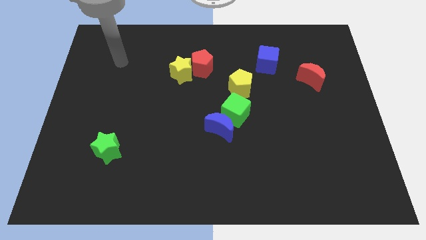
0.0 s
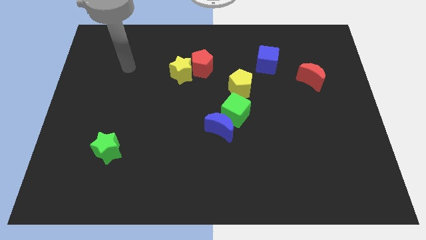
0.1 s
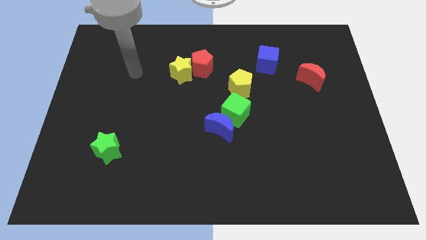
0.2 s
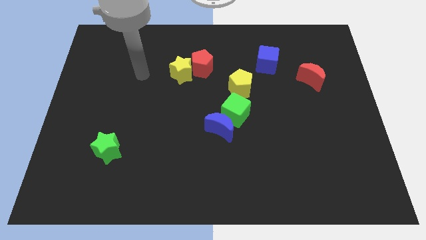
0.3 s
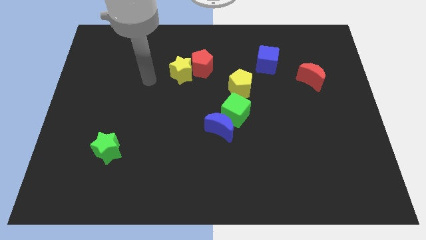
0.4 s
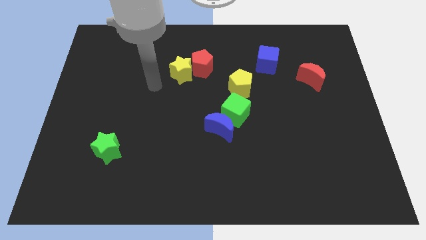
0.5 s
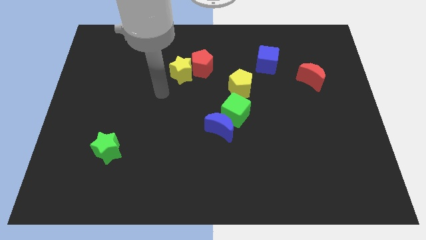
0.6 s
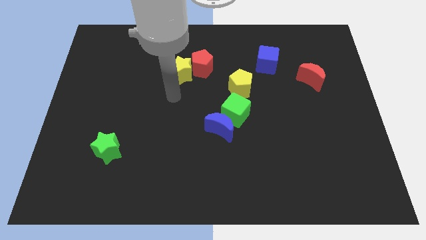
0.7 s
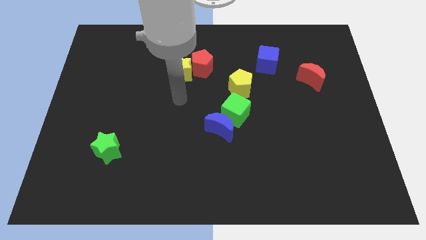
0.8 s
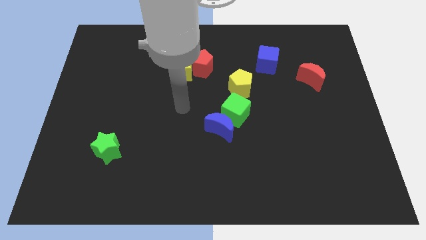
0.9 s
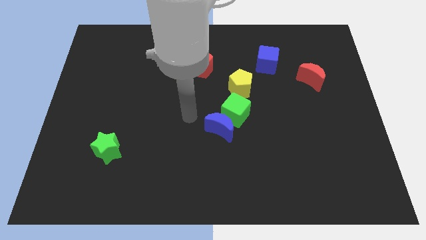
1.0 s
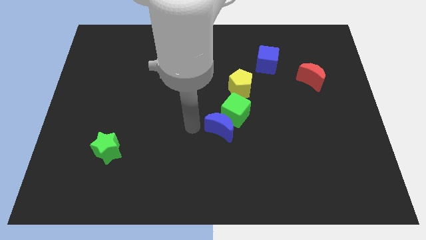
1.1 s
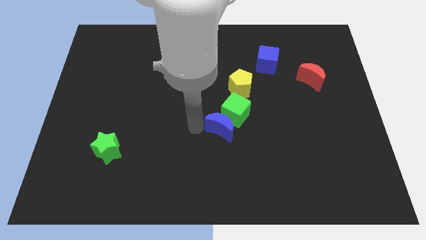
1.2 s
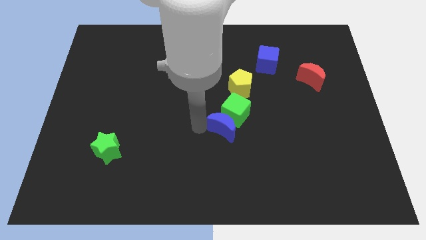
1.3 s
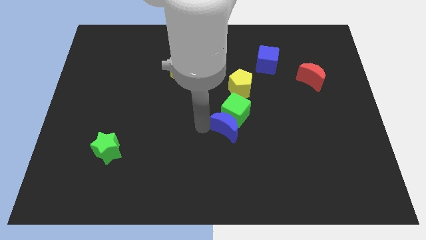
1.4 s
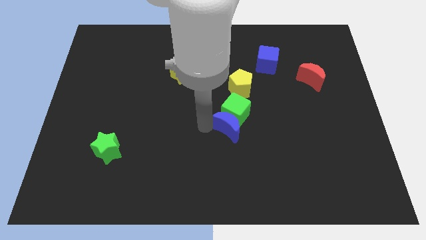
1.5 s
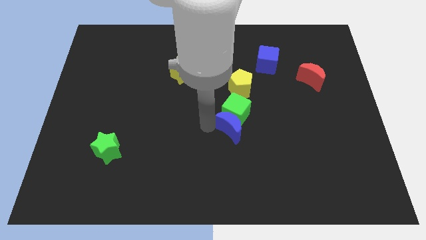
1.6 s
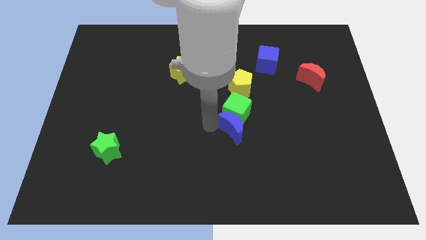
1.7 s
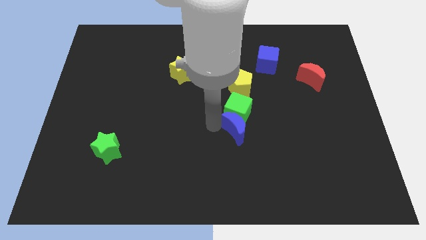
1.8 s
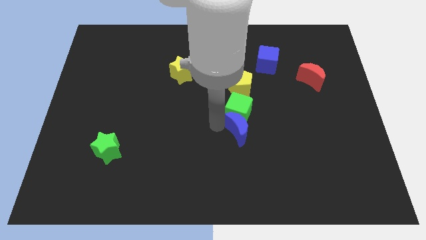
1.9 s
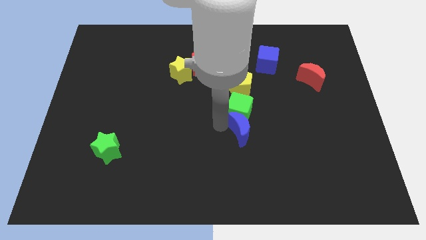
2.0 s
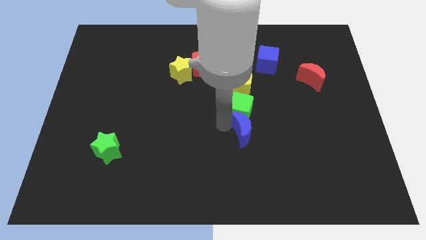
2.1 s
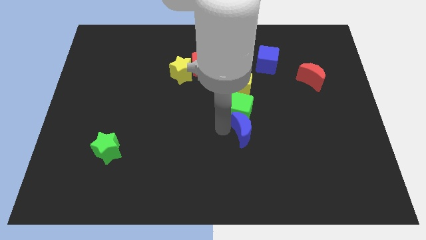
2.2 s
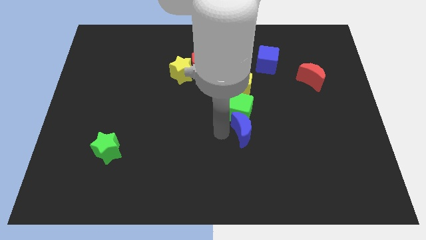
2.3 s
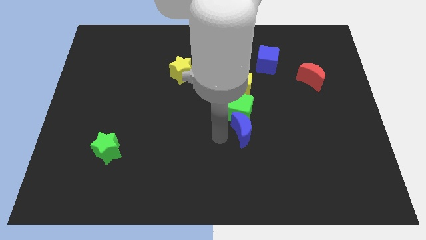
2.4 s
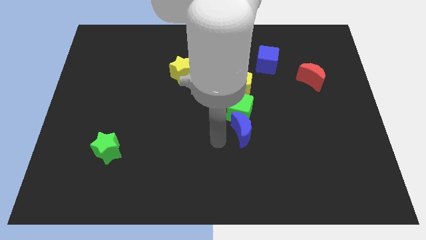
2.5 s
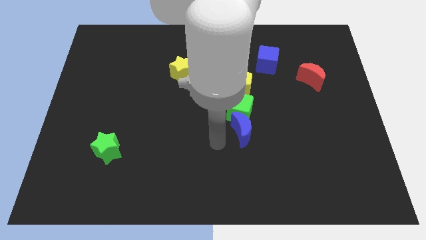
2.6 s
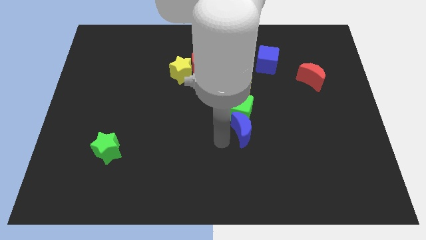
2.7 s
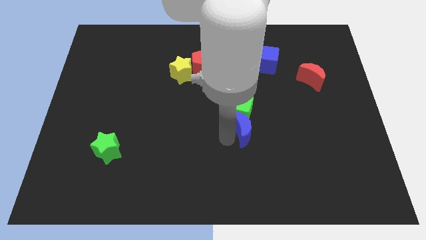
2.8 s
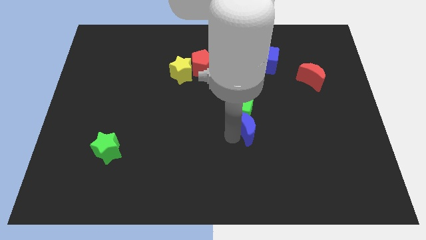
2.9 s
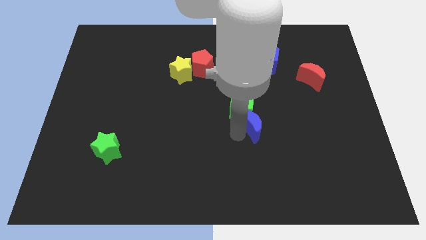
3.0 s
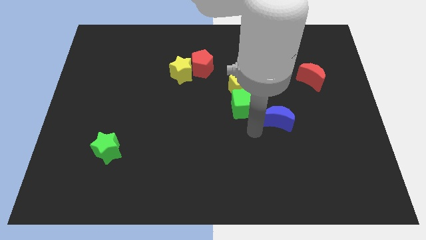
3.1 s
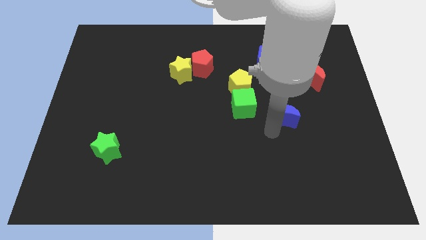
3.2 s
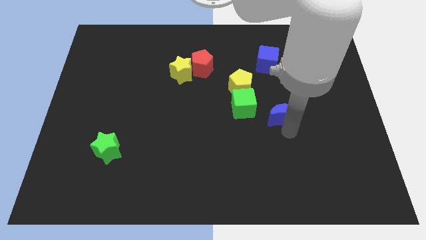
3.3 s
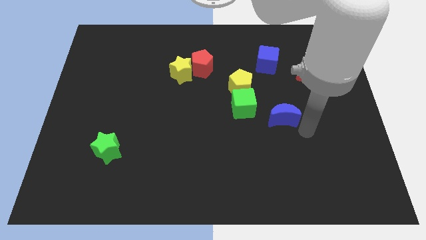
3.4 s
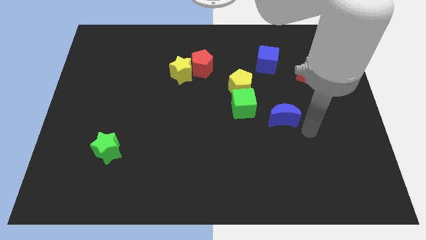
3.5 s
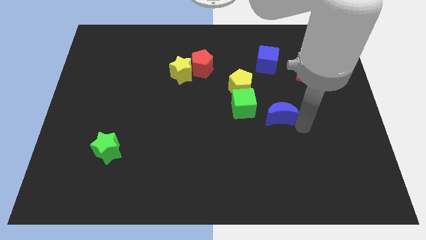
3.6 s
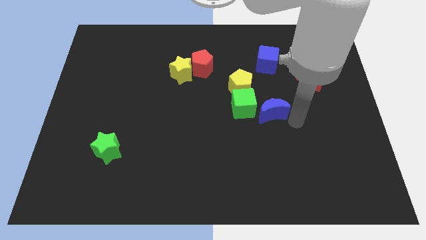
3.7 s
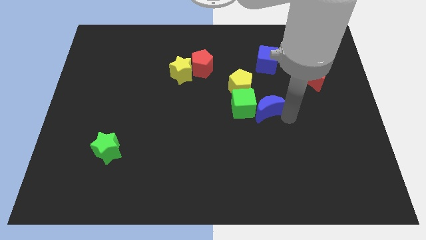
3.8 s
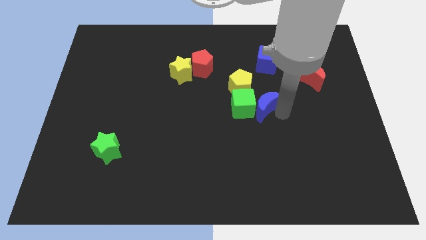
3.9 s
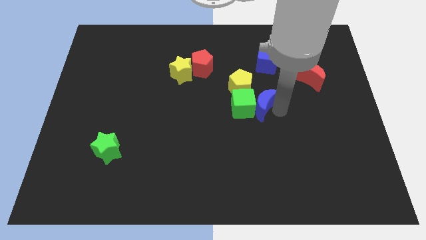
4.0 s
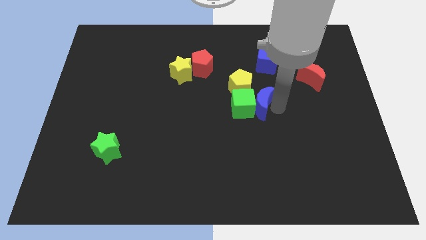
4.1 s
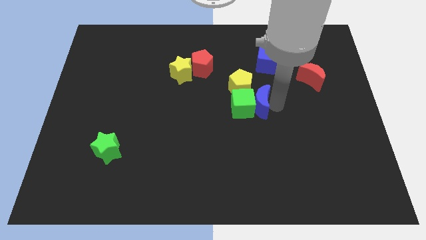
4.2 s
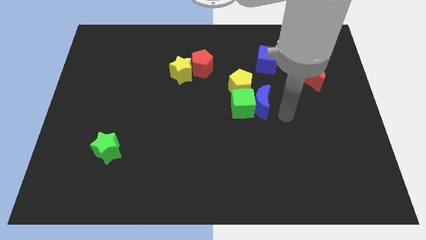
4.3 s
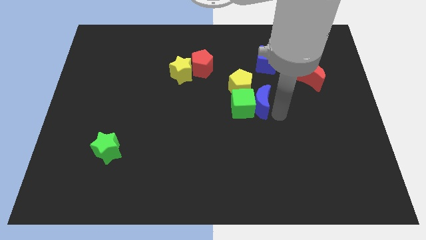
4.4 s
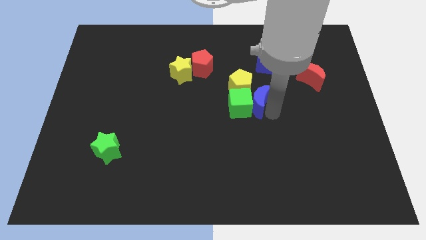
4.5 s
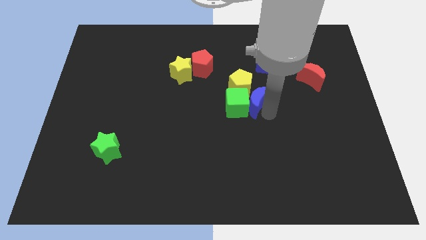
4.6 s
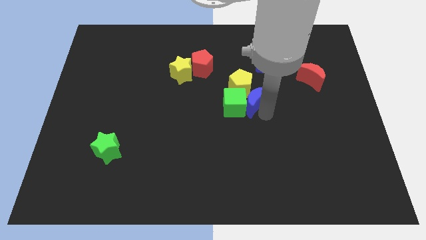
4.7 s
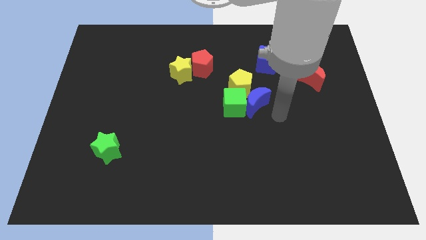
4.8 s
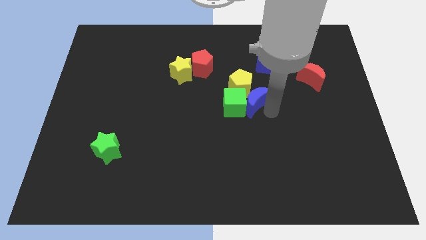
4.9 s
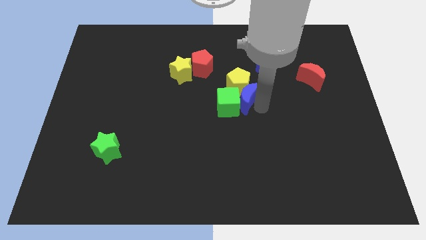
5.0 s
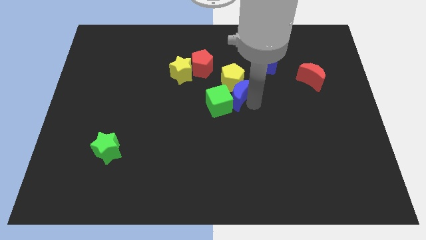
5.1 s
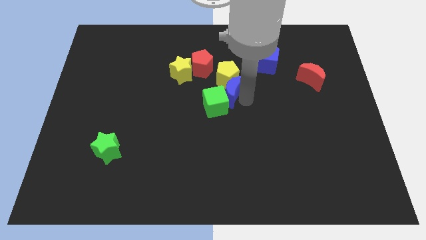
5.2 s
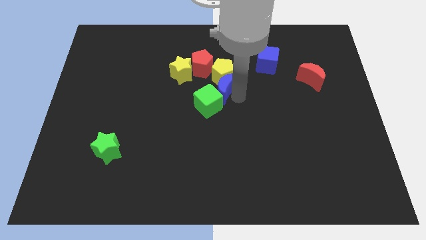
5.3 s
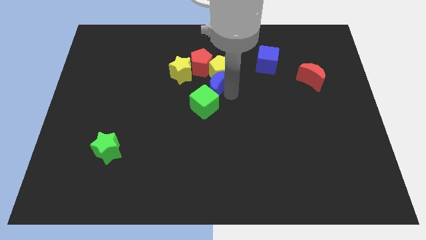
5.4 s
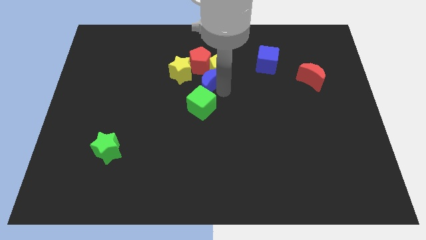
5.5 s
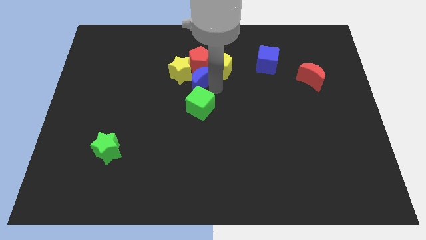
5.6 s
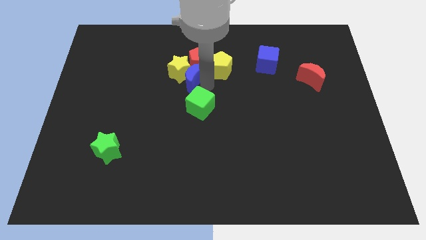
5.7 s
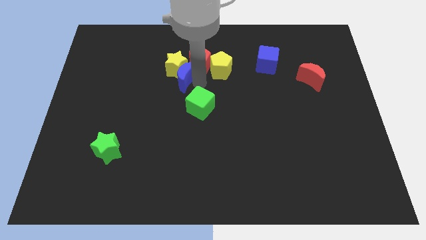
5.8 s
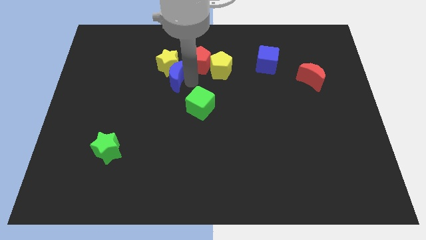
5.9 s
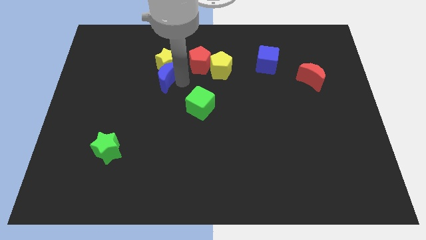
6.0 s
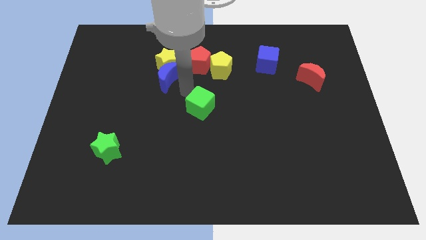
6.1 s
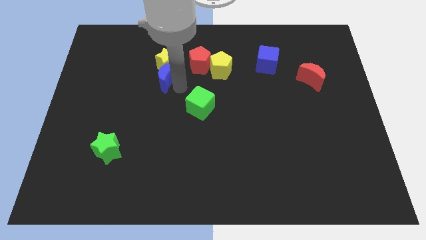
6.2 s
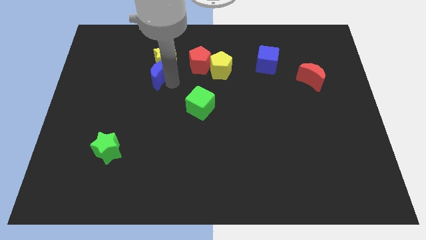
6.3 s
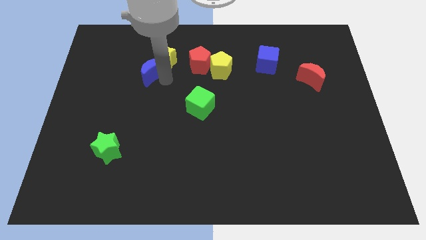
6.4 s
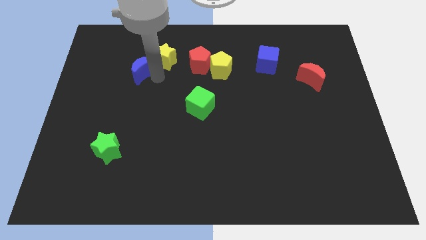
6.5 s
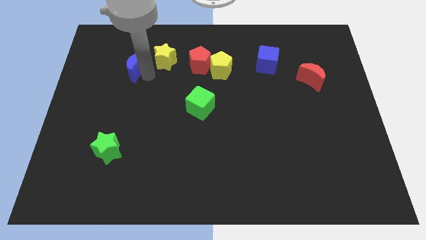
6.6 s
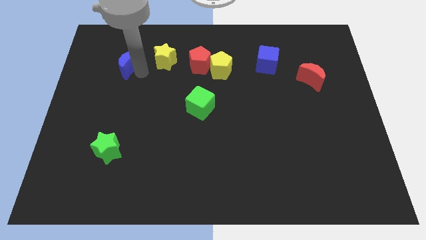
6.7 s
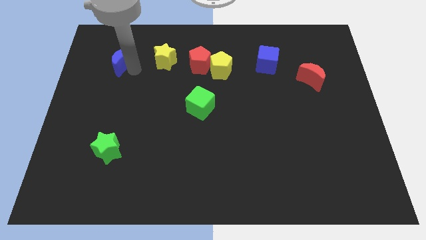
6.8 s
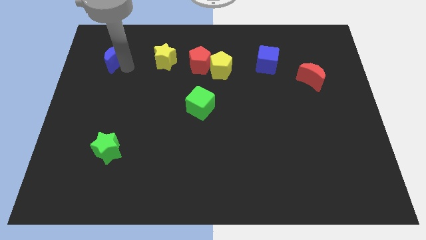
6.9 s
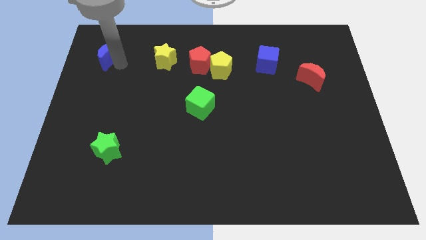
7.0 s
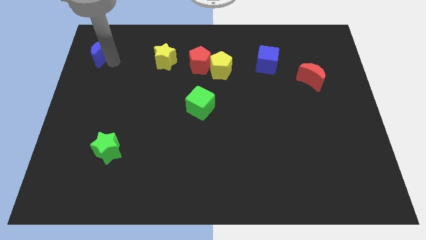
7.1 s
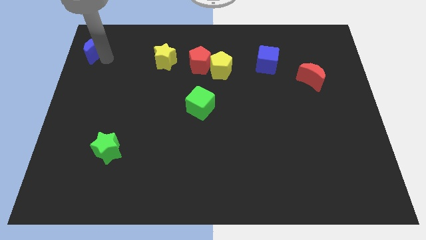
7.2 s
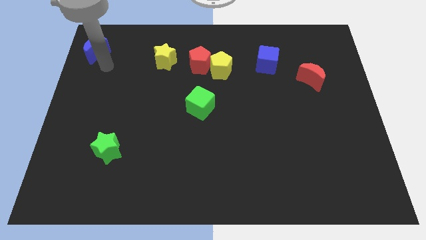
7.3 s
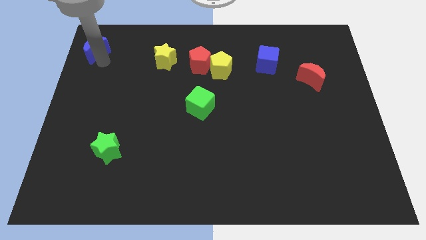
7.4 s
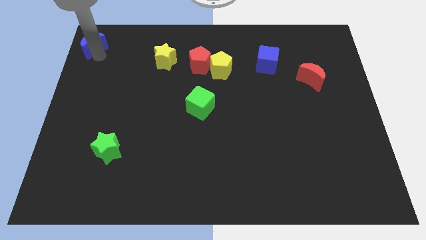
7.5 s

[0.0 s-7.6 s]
put the blue moon to the top left corner
